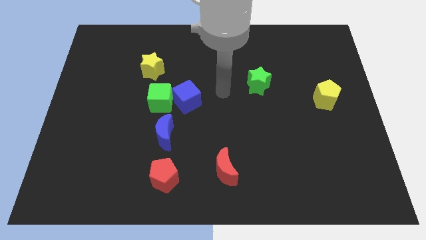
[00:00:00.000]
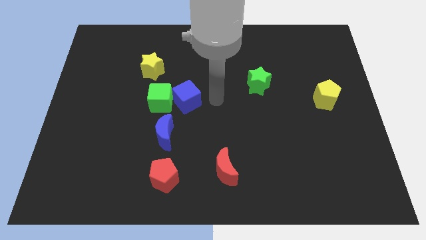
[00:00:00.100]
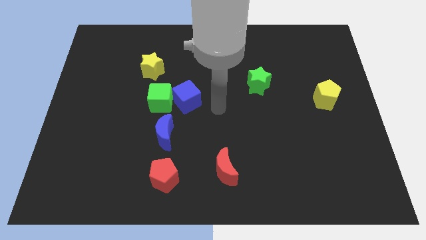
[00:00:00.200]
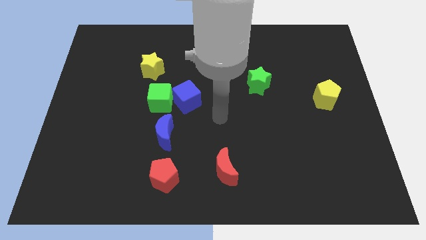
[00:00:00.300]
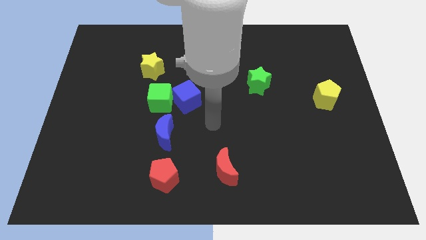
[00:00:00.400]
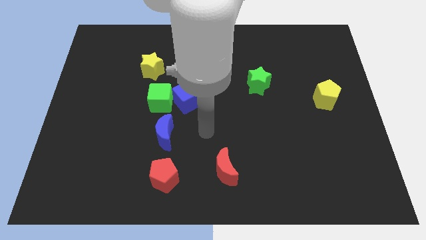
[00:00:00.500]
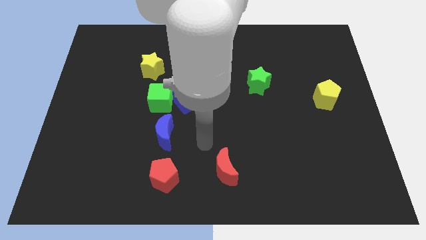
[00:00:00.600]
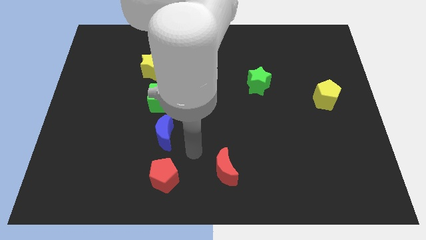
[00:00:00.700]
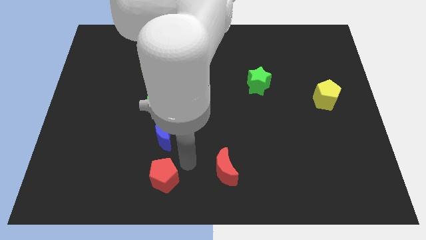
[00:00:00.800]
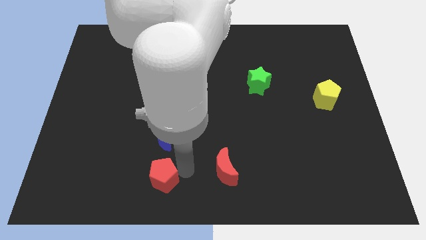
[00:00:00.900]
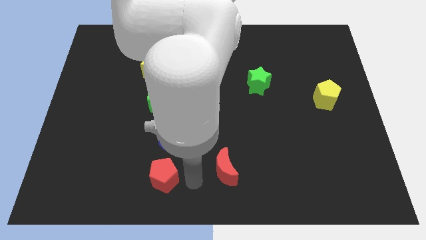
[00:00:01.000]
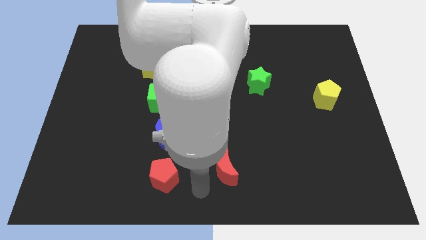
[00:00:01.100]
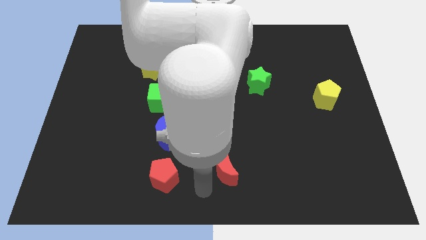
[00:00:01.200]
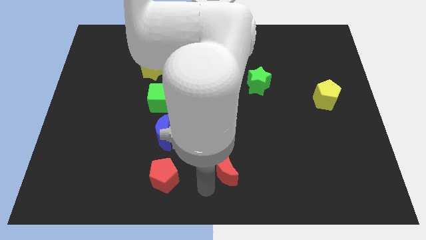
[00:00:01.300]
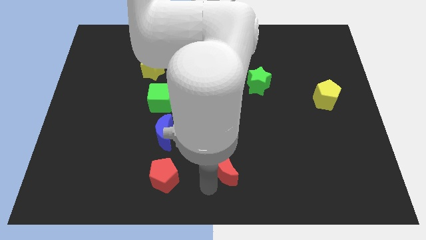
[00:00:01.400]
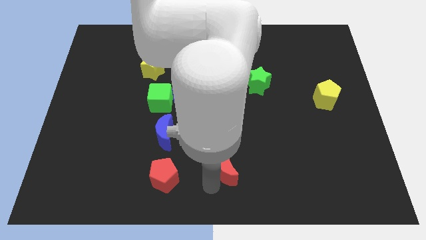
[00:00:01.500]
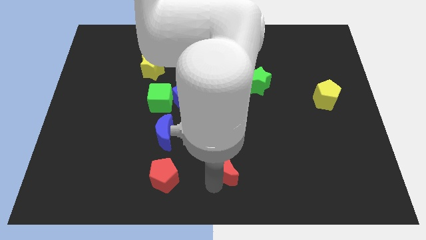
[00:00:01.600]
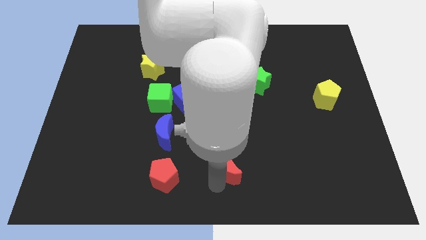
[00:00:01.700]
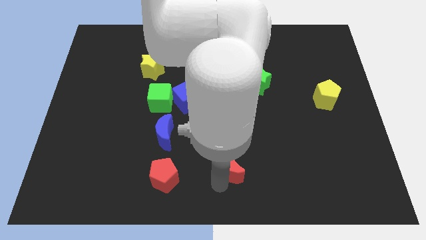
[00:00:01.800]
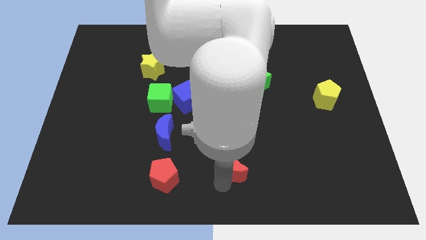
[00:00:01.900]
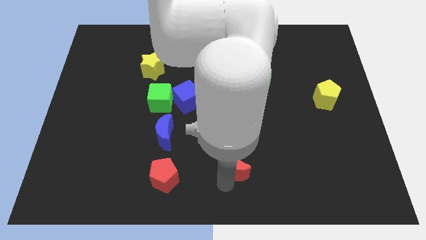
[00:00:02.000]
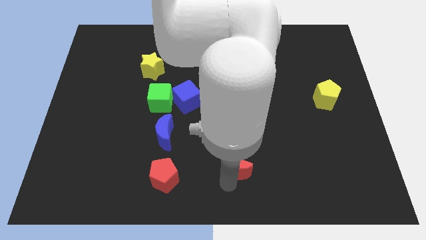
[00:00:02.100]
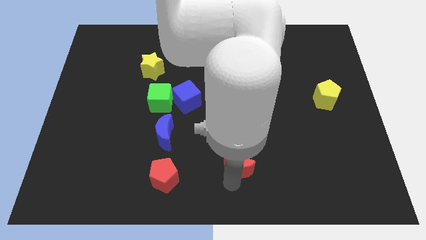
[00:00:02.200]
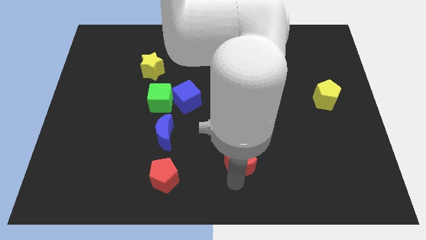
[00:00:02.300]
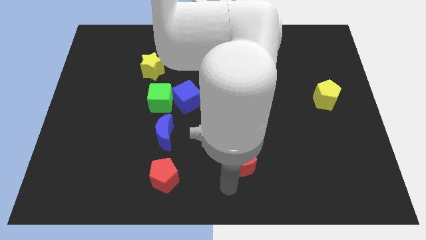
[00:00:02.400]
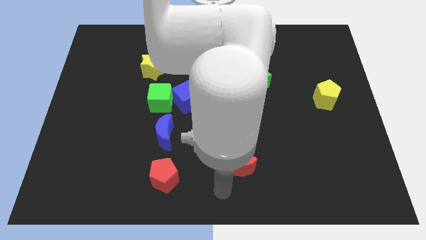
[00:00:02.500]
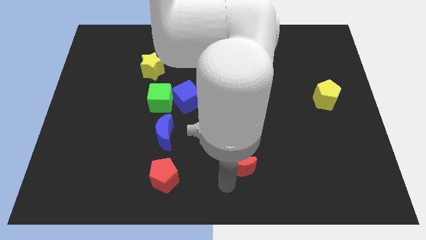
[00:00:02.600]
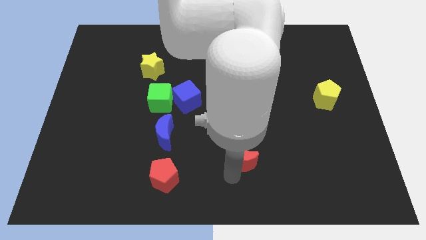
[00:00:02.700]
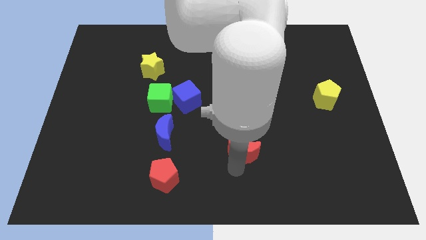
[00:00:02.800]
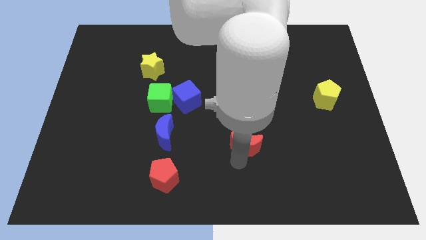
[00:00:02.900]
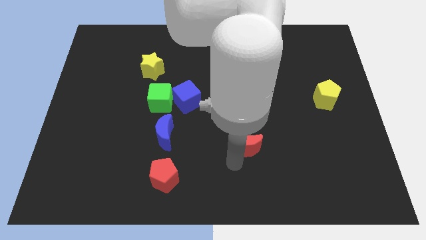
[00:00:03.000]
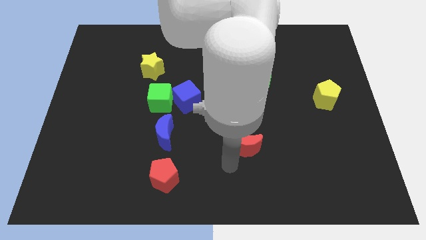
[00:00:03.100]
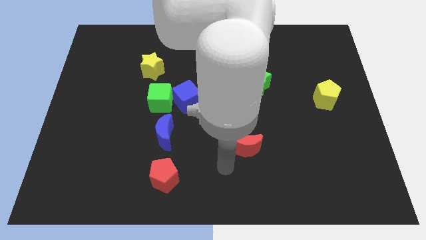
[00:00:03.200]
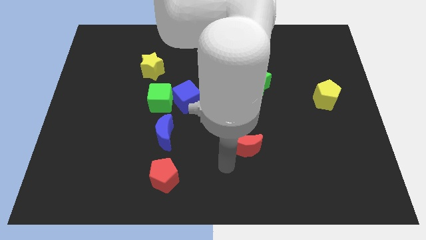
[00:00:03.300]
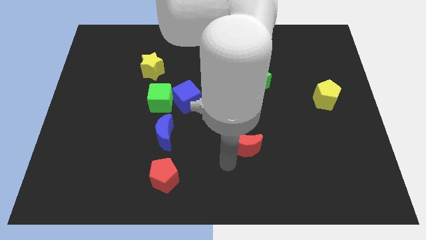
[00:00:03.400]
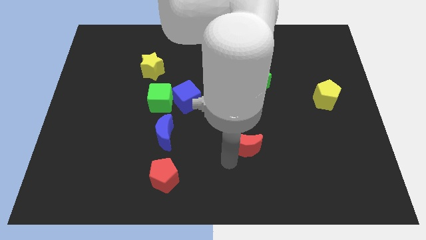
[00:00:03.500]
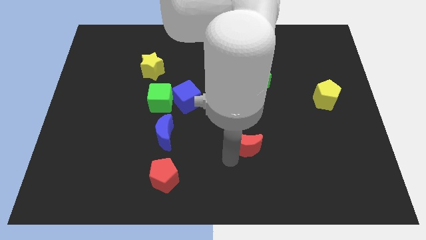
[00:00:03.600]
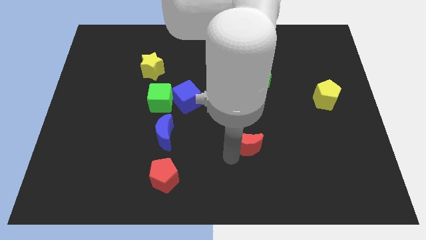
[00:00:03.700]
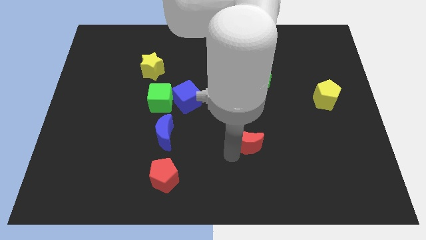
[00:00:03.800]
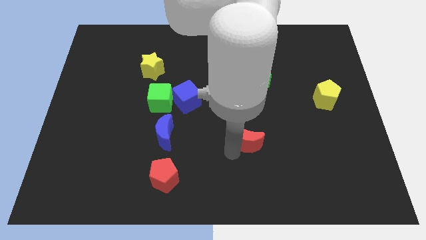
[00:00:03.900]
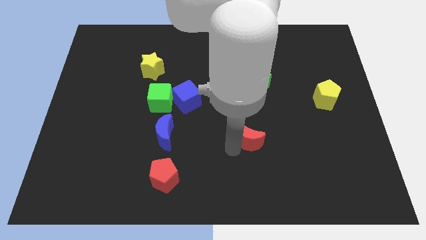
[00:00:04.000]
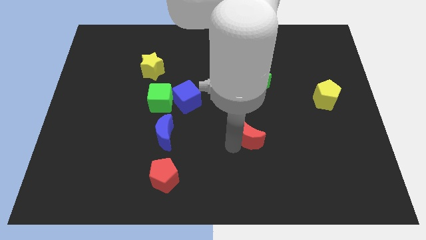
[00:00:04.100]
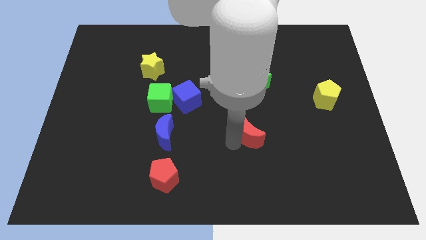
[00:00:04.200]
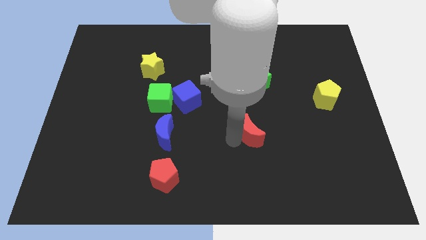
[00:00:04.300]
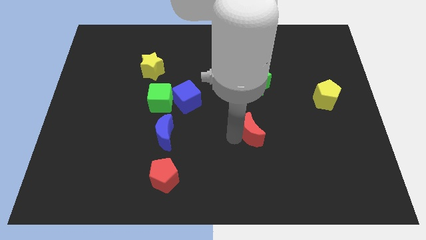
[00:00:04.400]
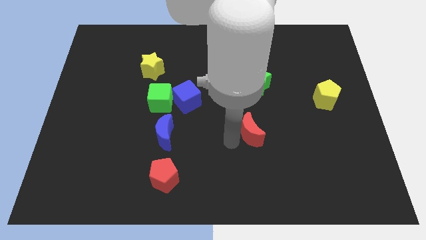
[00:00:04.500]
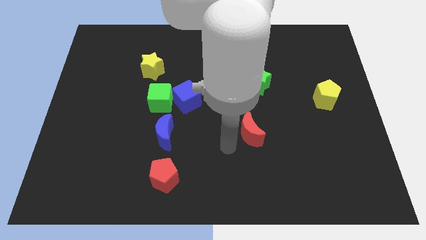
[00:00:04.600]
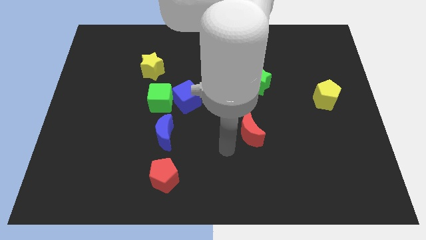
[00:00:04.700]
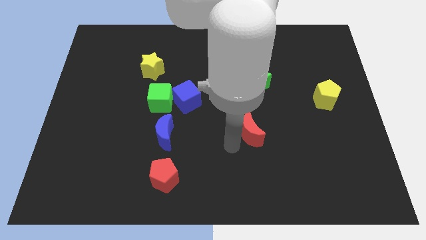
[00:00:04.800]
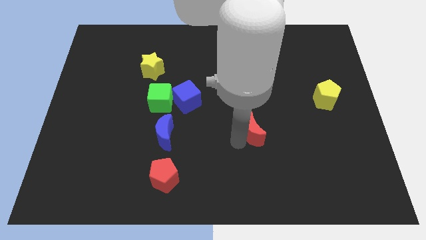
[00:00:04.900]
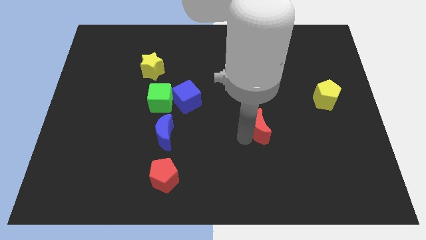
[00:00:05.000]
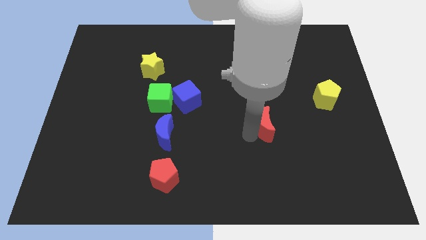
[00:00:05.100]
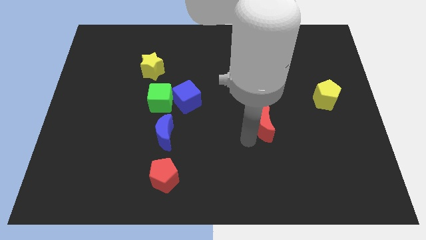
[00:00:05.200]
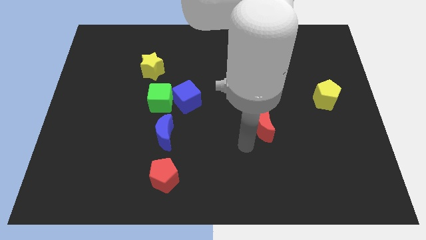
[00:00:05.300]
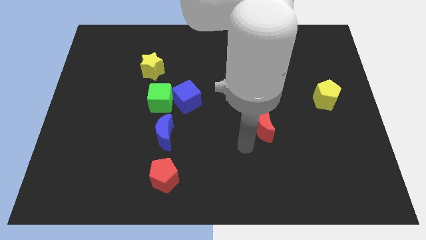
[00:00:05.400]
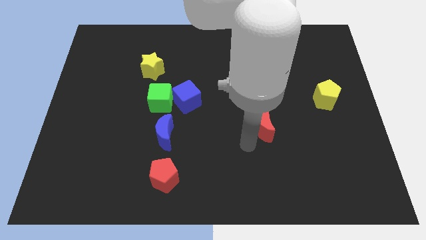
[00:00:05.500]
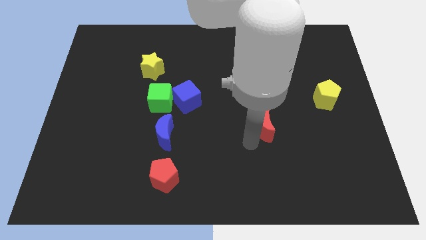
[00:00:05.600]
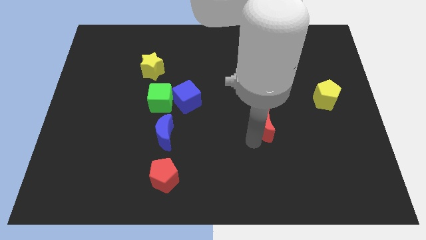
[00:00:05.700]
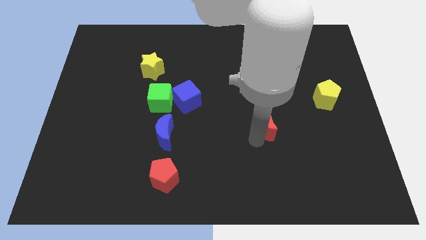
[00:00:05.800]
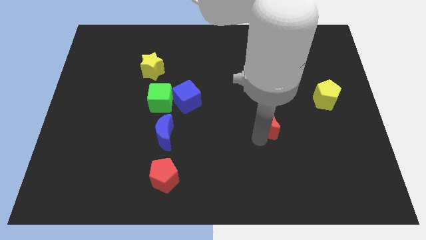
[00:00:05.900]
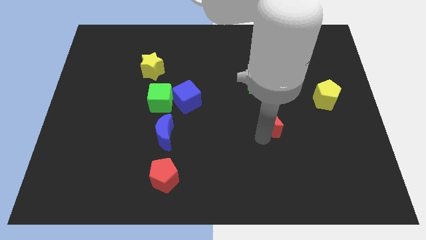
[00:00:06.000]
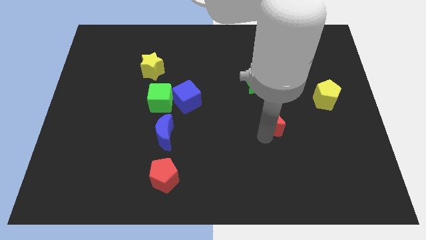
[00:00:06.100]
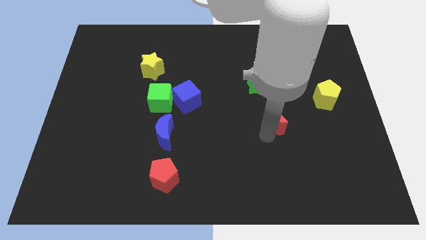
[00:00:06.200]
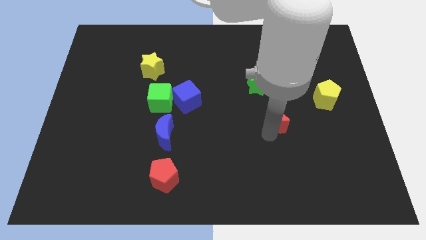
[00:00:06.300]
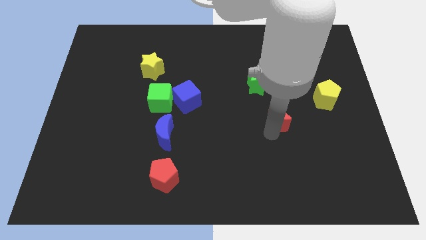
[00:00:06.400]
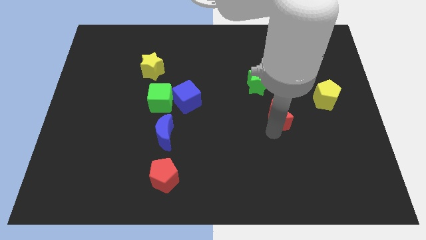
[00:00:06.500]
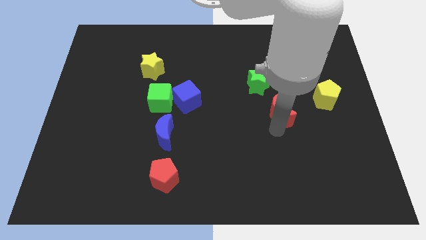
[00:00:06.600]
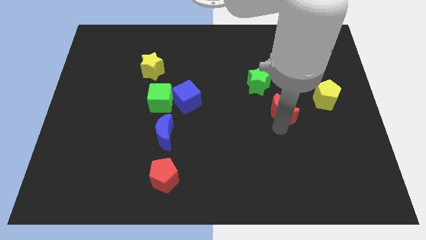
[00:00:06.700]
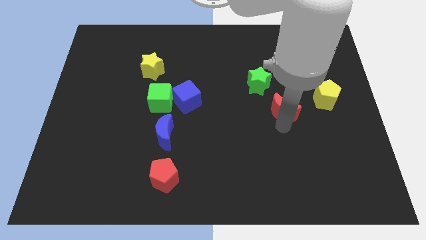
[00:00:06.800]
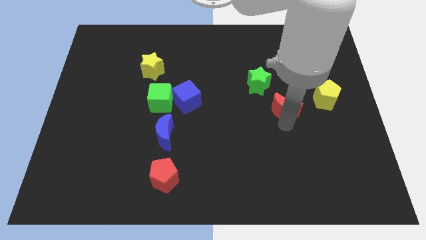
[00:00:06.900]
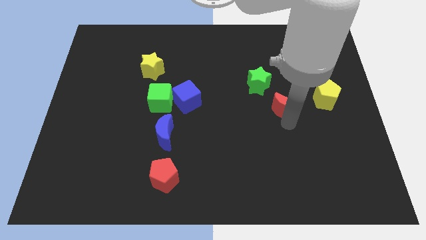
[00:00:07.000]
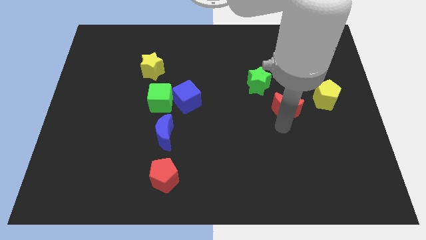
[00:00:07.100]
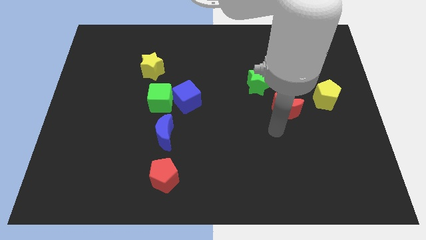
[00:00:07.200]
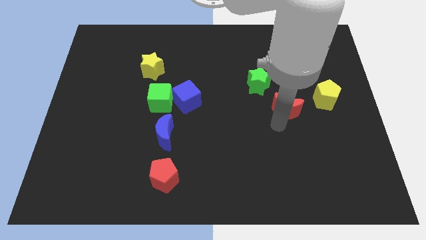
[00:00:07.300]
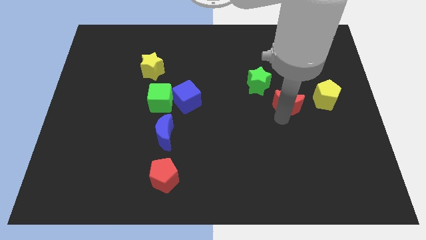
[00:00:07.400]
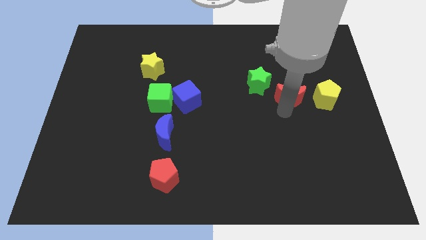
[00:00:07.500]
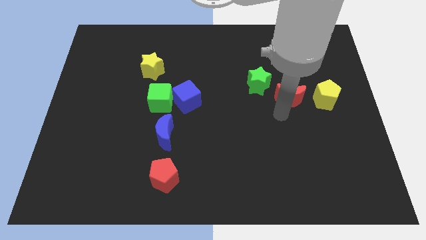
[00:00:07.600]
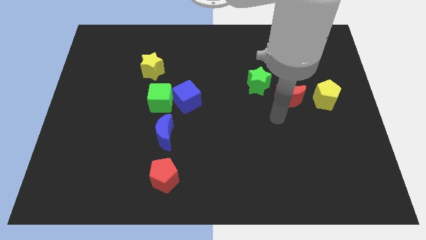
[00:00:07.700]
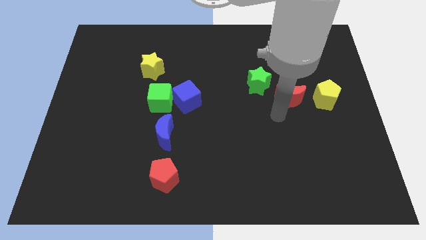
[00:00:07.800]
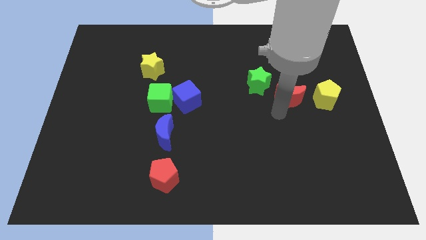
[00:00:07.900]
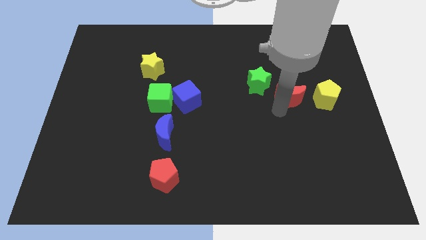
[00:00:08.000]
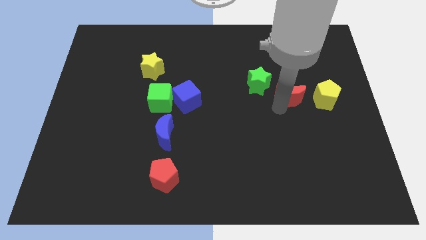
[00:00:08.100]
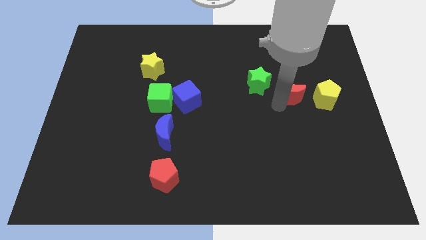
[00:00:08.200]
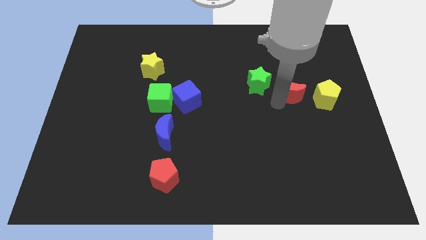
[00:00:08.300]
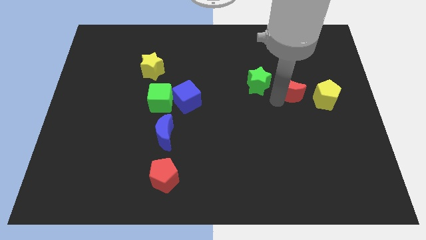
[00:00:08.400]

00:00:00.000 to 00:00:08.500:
move the red moon diagonally up and to the left of the yellow pentagon
